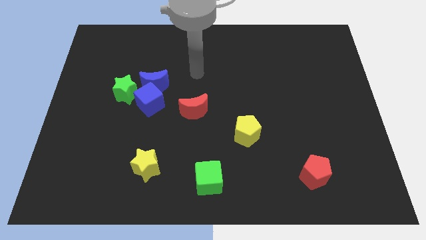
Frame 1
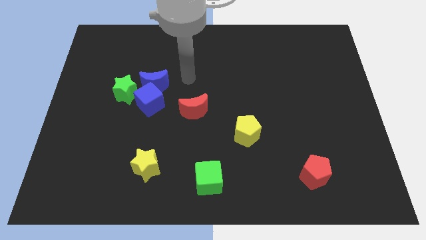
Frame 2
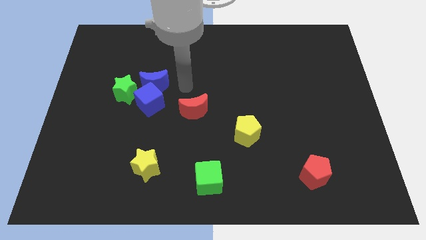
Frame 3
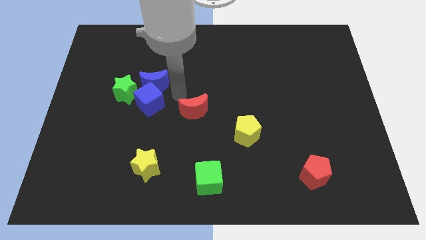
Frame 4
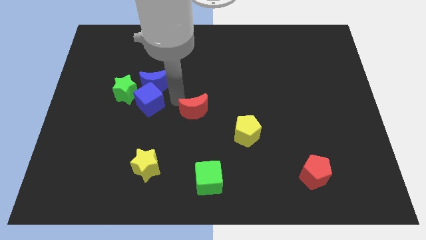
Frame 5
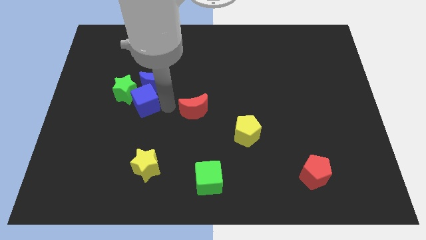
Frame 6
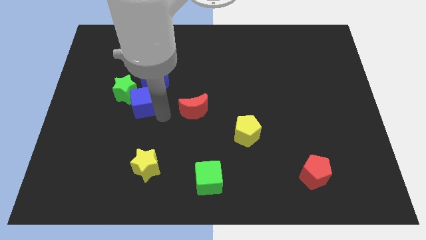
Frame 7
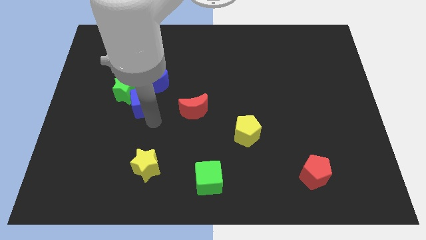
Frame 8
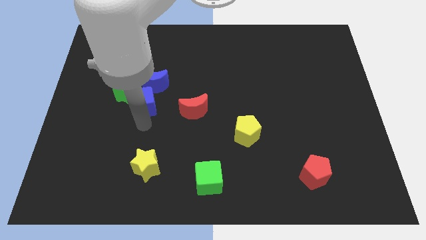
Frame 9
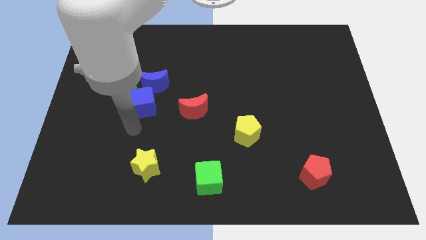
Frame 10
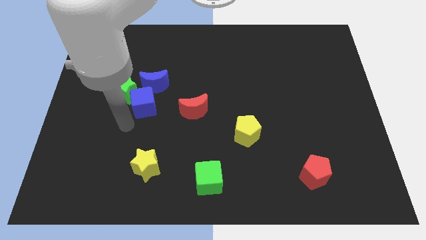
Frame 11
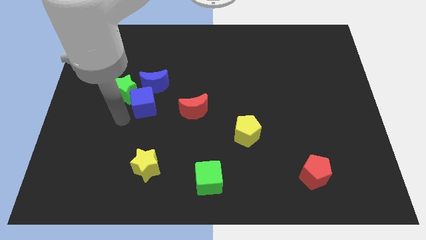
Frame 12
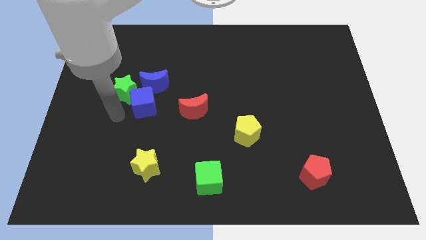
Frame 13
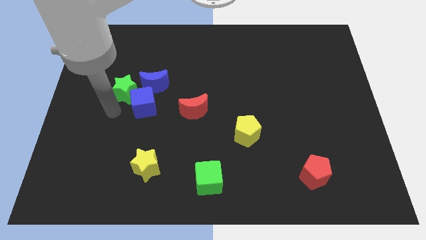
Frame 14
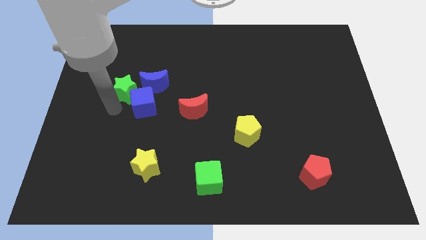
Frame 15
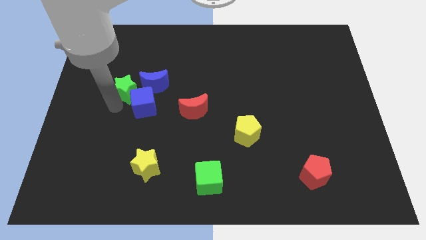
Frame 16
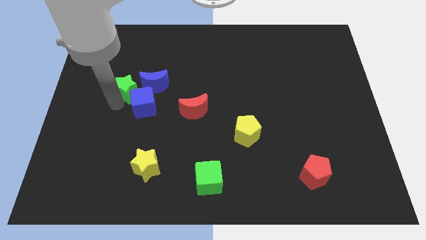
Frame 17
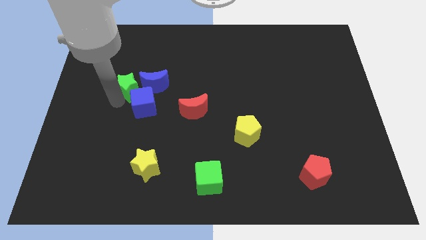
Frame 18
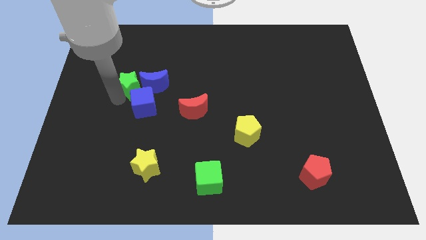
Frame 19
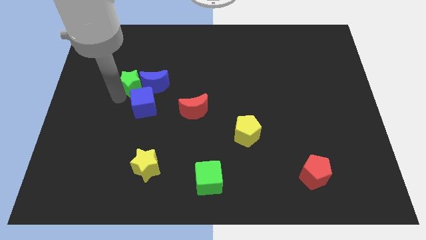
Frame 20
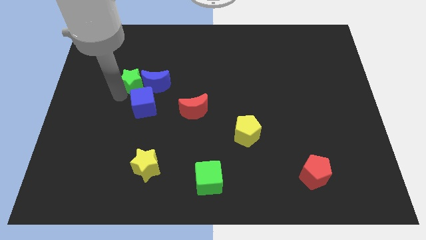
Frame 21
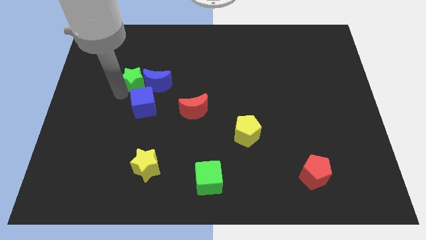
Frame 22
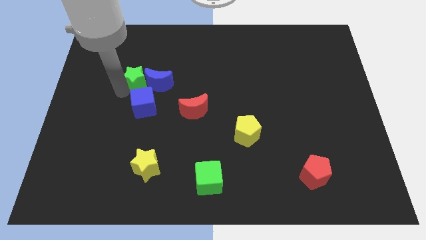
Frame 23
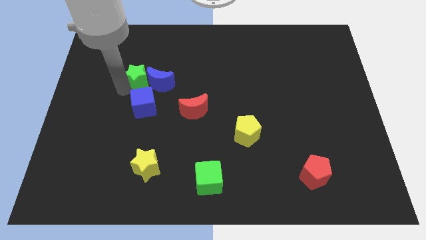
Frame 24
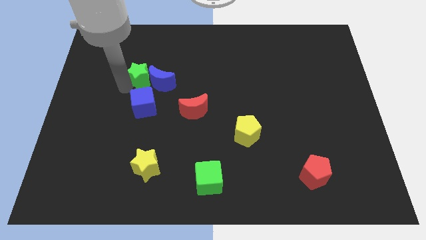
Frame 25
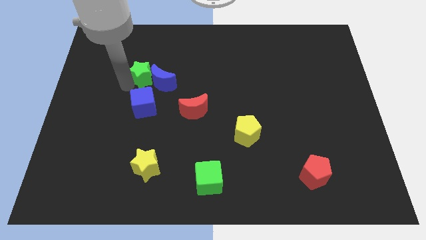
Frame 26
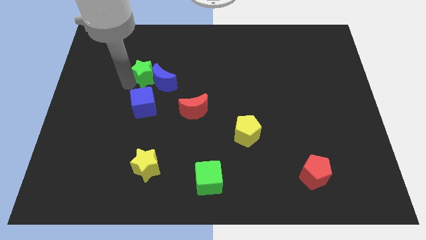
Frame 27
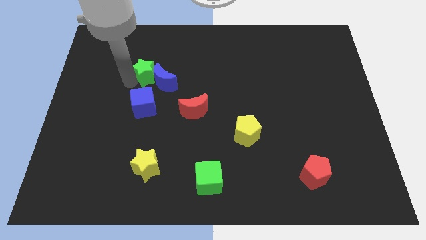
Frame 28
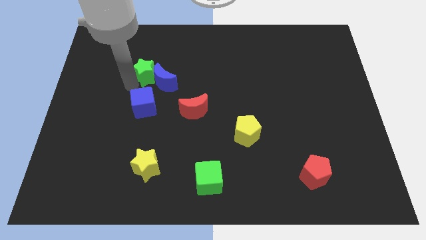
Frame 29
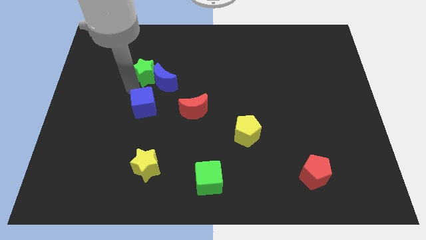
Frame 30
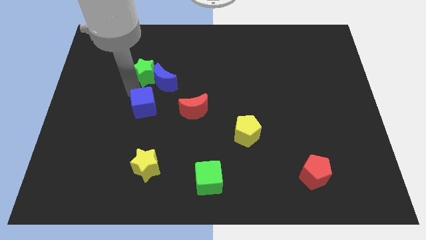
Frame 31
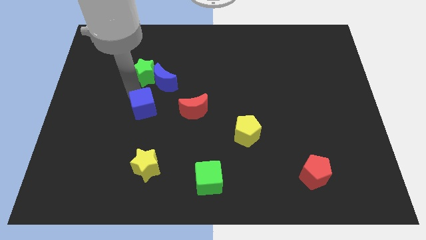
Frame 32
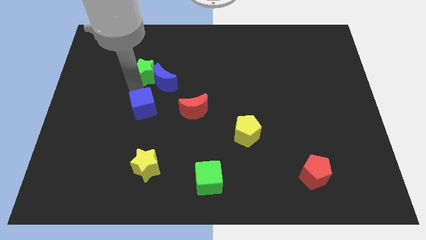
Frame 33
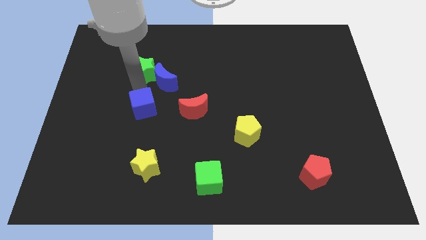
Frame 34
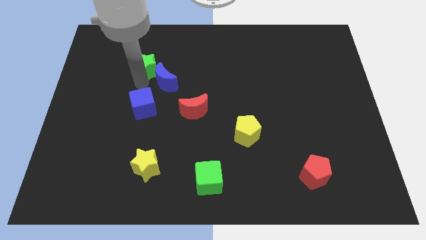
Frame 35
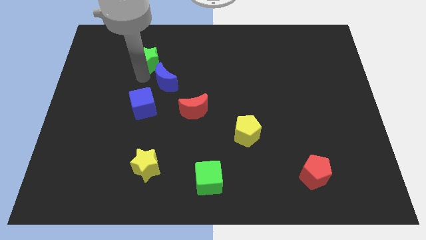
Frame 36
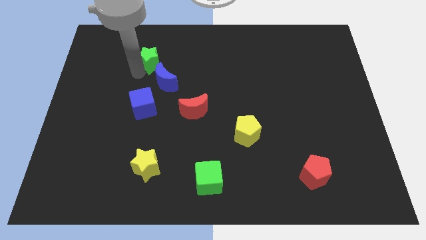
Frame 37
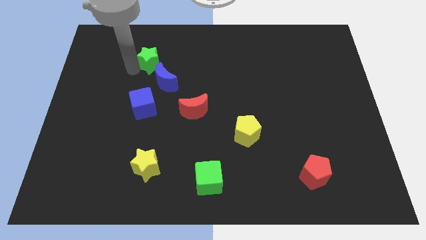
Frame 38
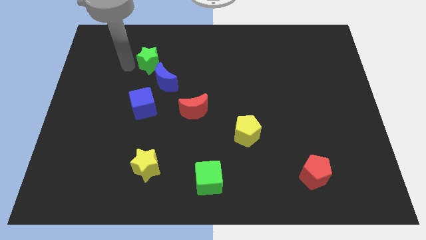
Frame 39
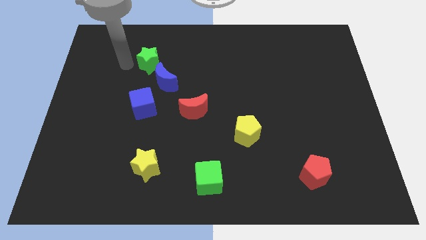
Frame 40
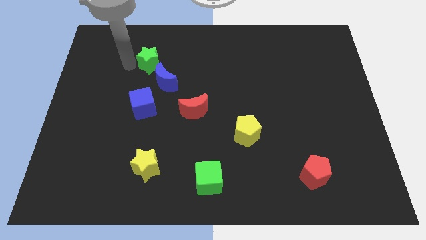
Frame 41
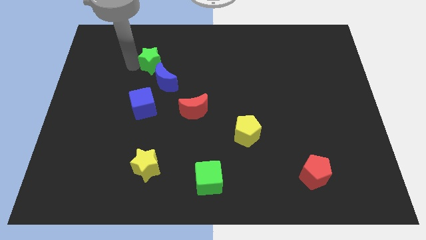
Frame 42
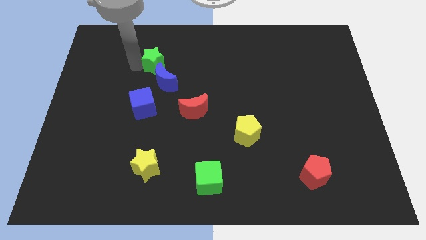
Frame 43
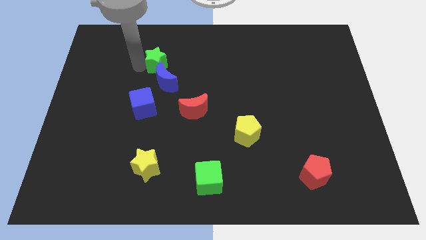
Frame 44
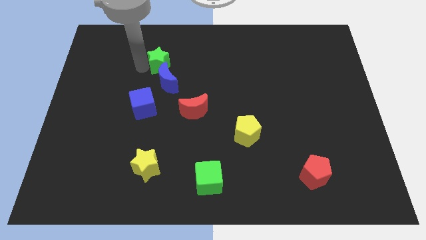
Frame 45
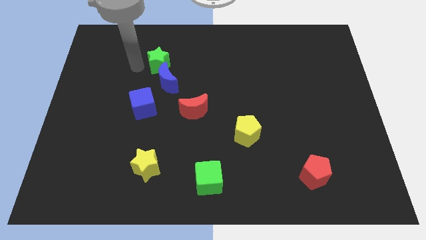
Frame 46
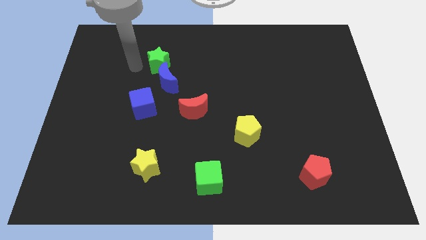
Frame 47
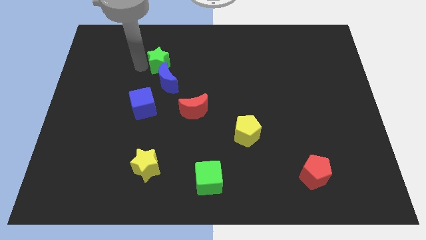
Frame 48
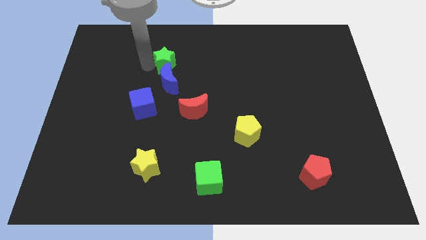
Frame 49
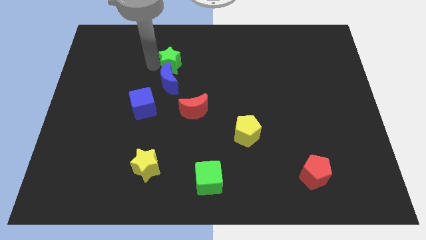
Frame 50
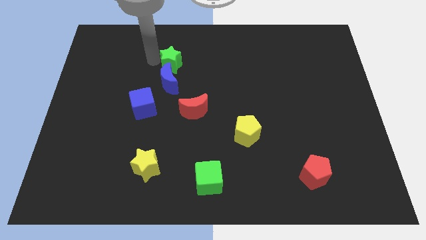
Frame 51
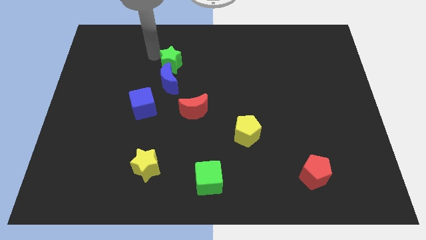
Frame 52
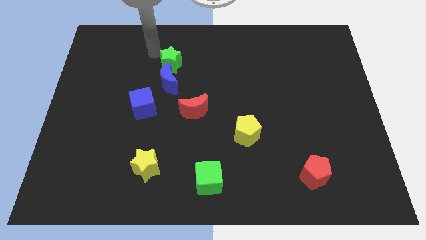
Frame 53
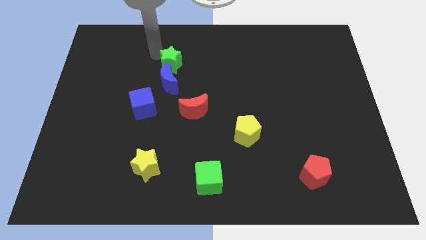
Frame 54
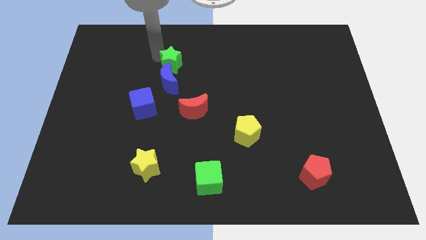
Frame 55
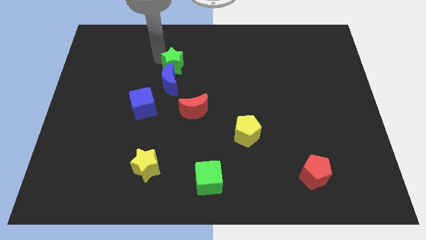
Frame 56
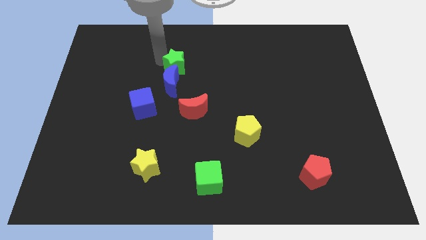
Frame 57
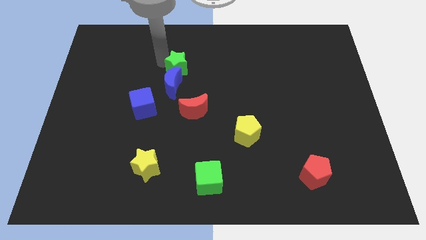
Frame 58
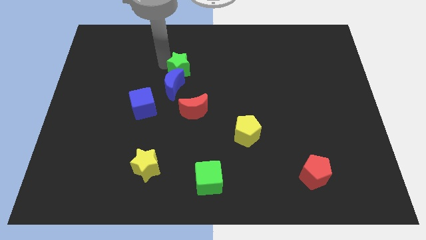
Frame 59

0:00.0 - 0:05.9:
move the green star to the top side of the red moon

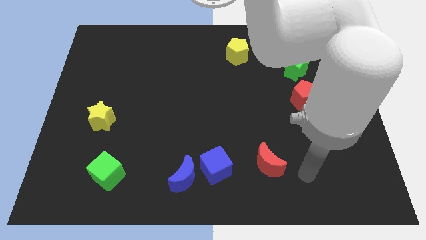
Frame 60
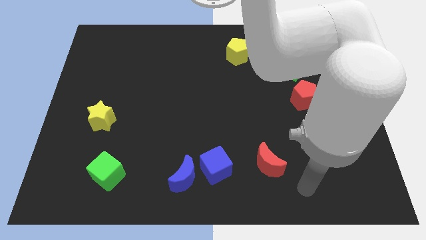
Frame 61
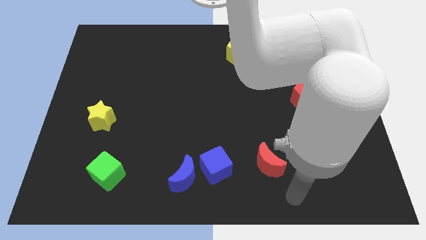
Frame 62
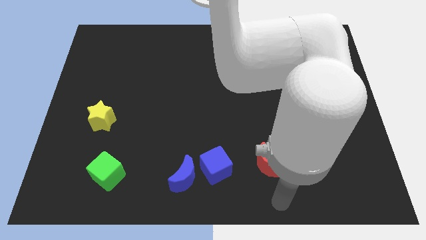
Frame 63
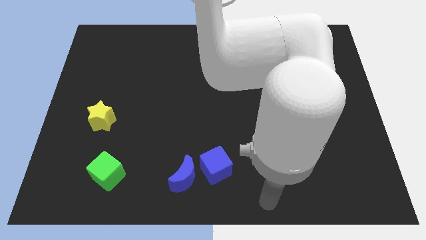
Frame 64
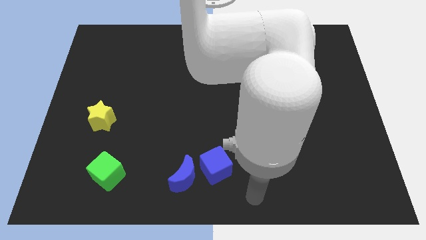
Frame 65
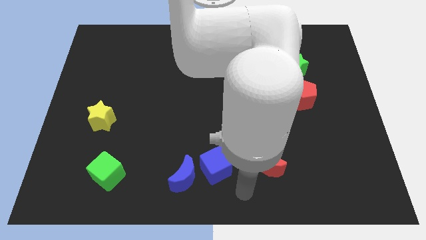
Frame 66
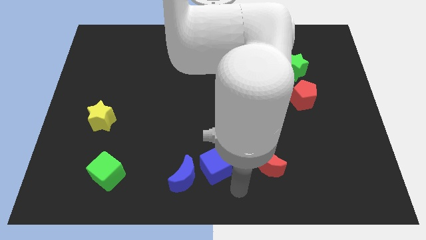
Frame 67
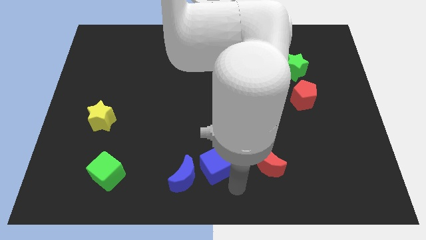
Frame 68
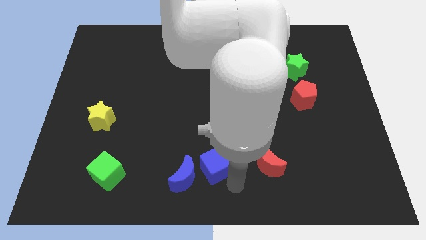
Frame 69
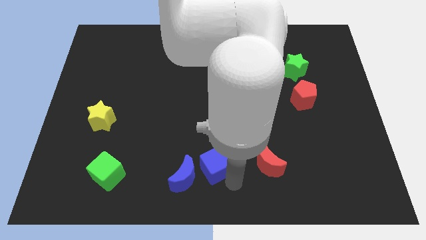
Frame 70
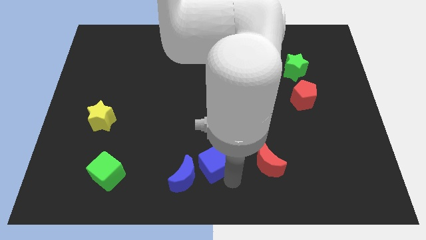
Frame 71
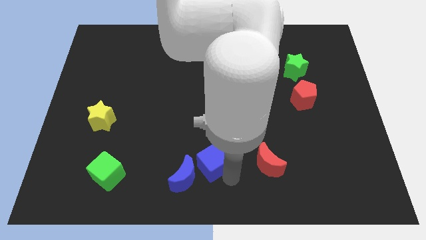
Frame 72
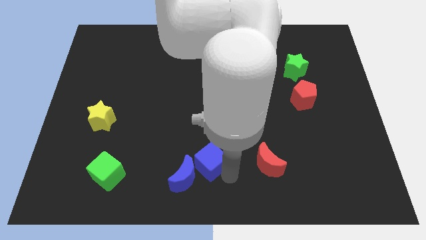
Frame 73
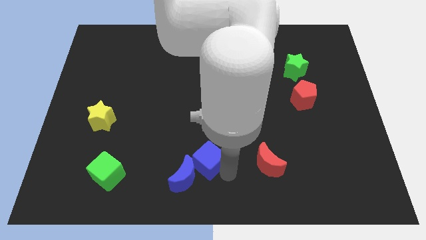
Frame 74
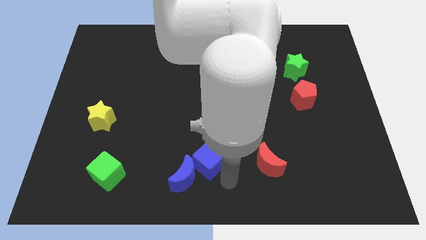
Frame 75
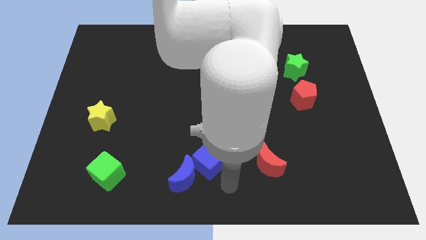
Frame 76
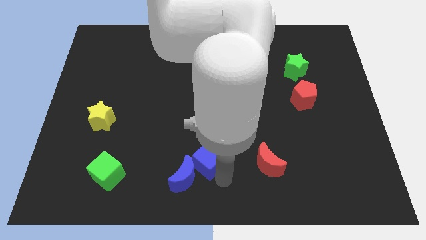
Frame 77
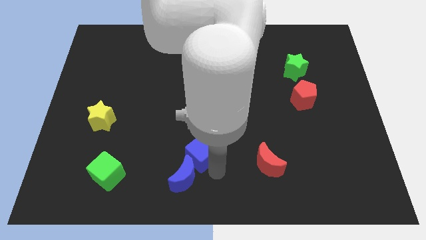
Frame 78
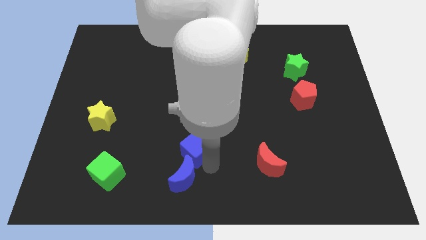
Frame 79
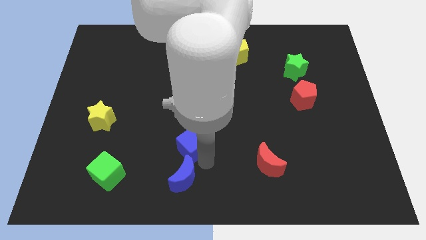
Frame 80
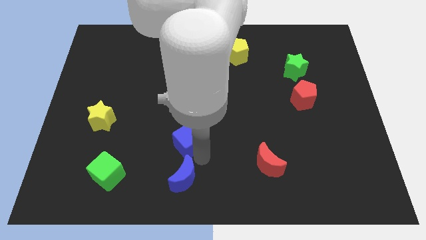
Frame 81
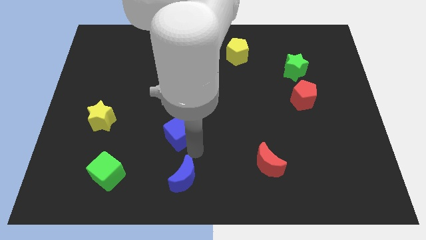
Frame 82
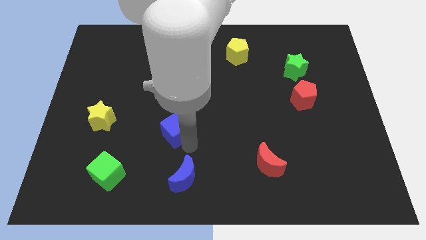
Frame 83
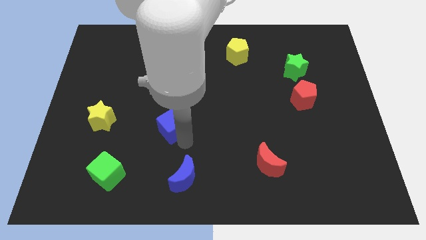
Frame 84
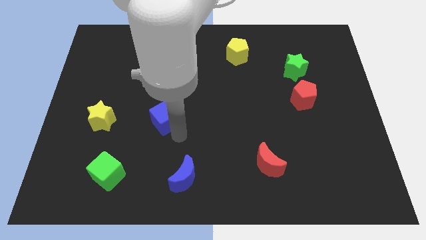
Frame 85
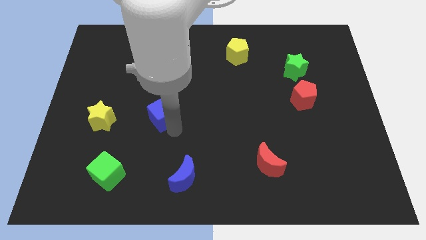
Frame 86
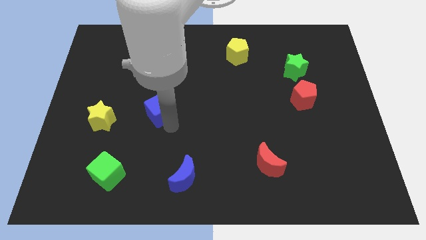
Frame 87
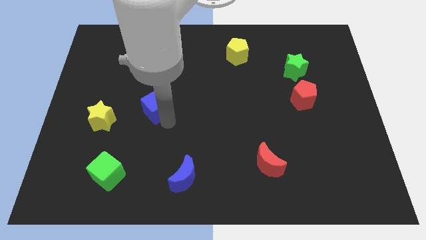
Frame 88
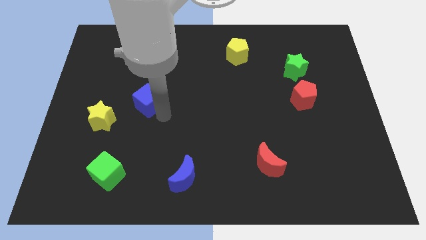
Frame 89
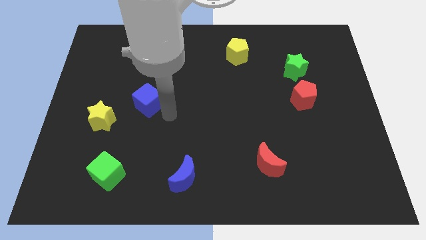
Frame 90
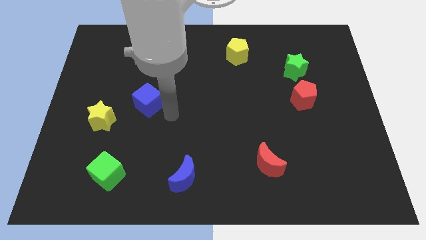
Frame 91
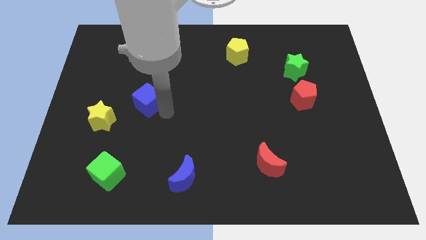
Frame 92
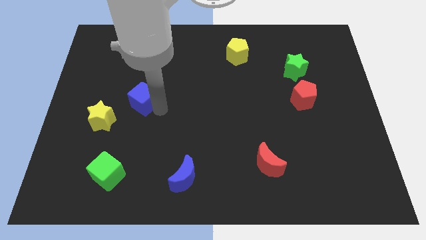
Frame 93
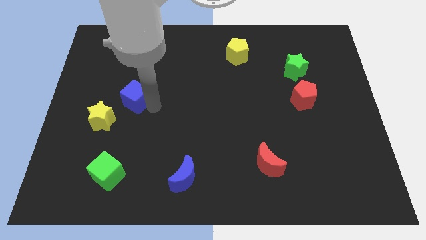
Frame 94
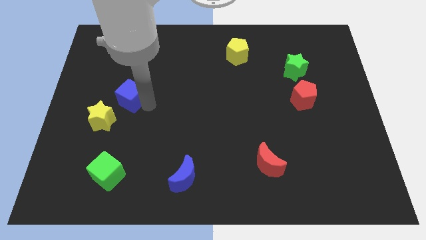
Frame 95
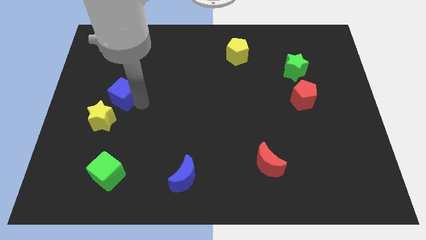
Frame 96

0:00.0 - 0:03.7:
put the blue cube to the top of the yellow star
